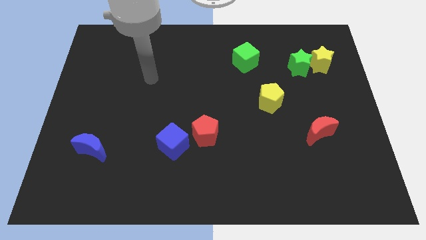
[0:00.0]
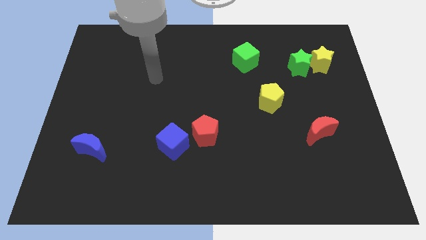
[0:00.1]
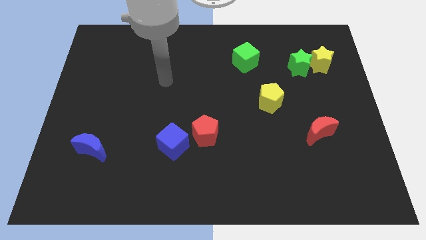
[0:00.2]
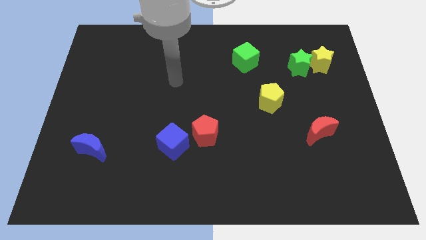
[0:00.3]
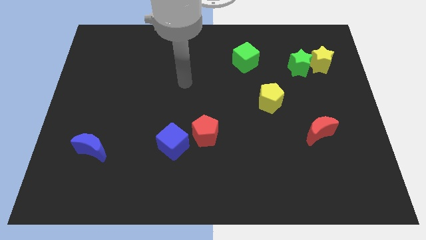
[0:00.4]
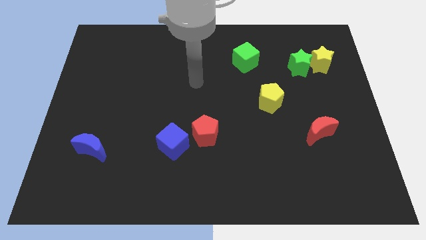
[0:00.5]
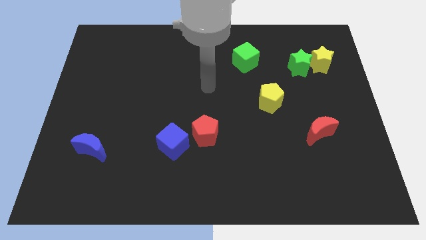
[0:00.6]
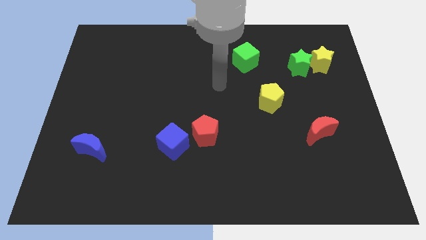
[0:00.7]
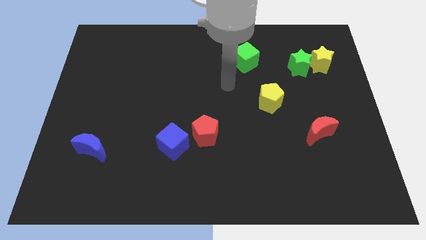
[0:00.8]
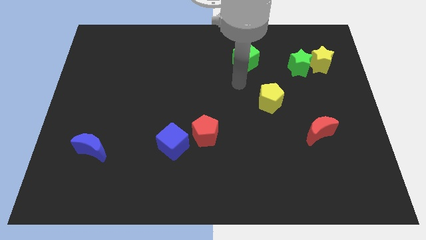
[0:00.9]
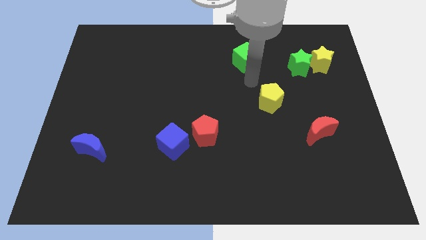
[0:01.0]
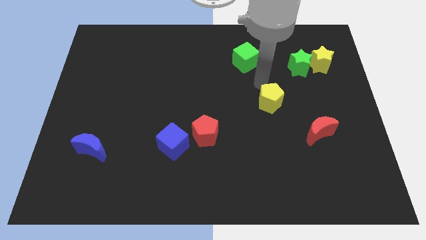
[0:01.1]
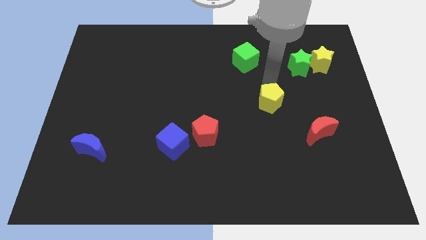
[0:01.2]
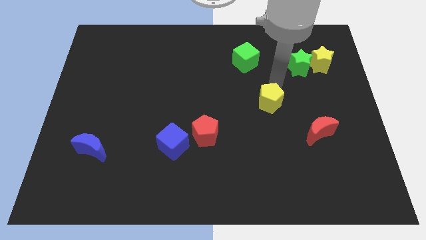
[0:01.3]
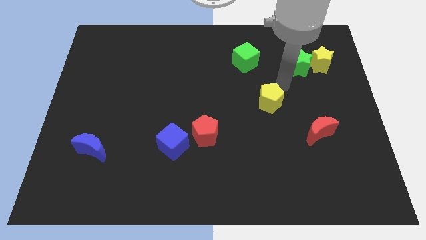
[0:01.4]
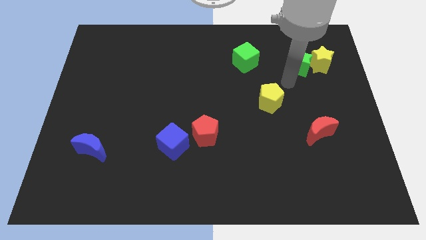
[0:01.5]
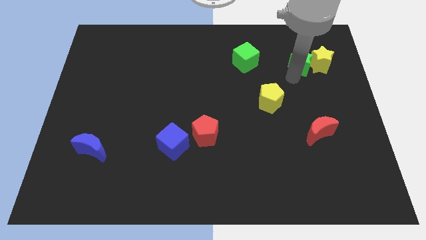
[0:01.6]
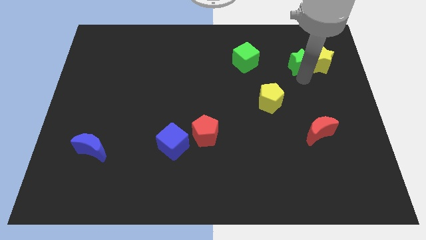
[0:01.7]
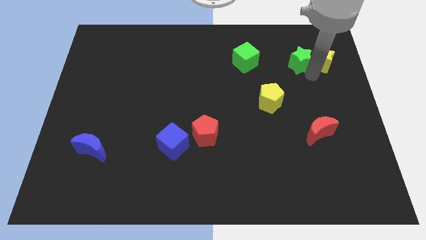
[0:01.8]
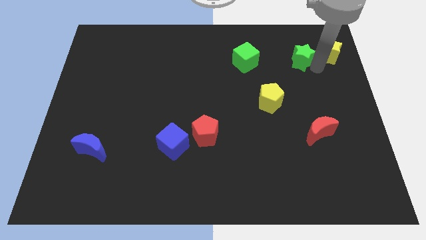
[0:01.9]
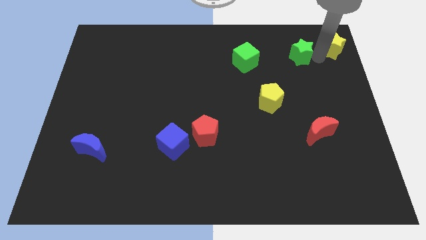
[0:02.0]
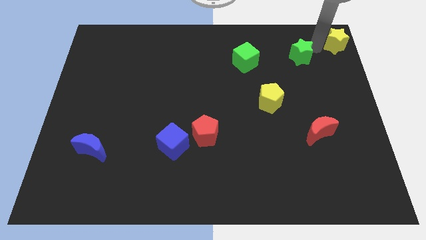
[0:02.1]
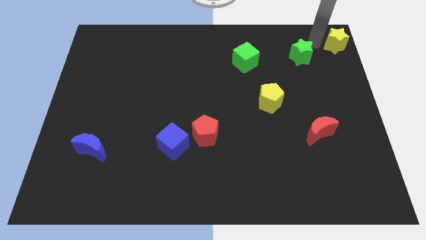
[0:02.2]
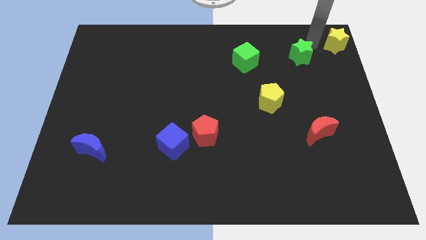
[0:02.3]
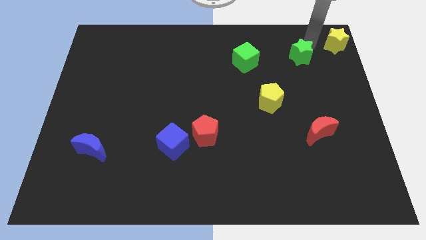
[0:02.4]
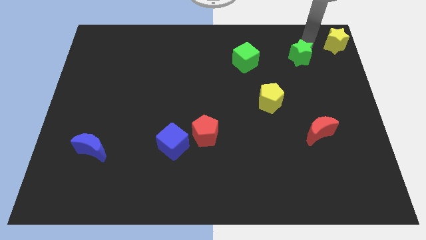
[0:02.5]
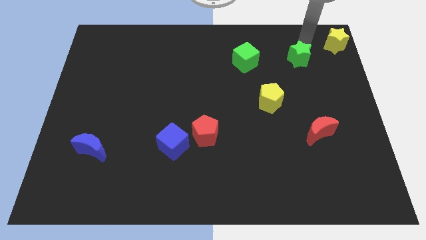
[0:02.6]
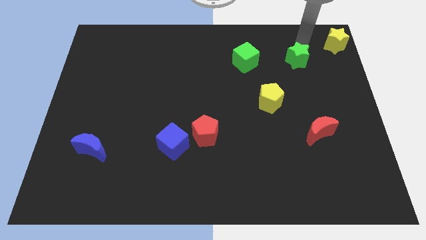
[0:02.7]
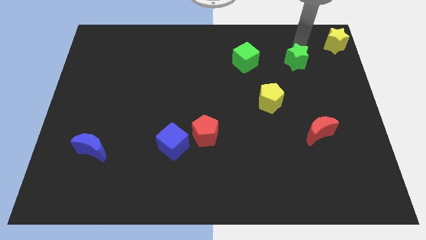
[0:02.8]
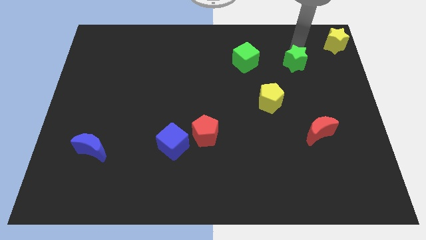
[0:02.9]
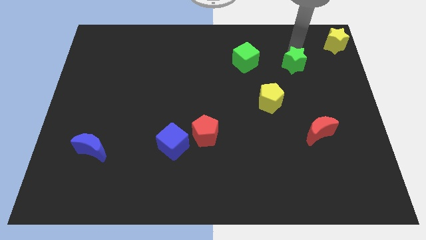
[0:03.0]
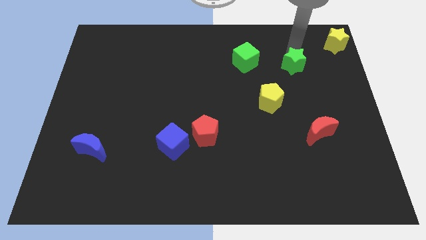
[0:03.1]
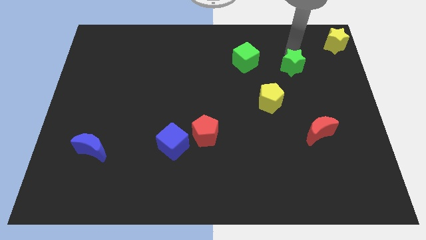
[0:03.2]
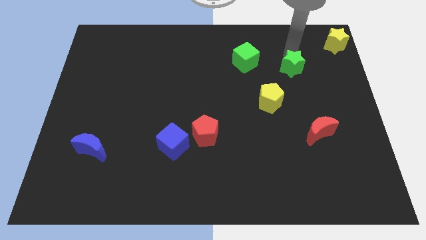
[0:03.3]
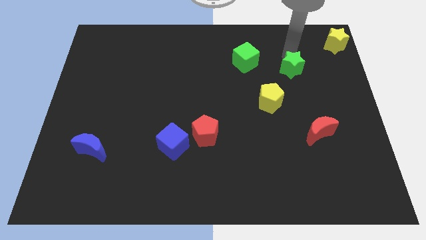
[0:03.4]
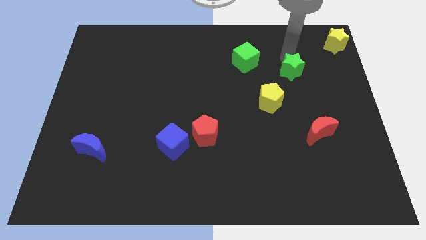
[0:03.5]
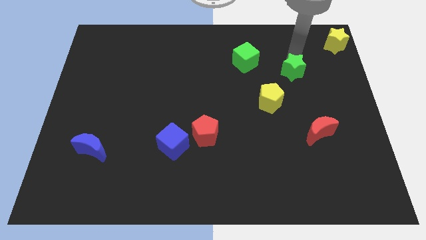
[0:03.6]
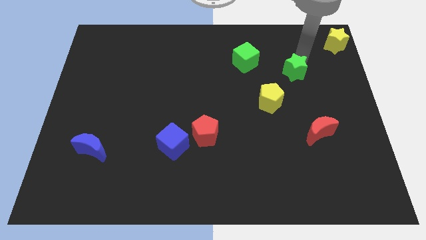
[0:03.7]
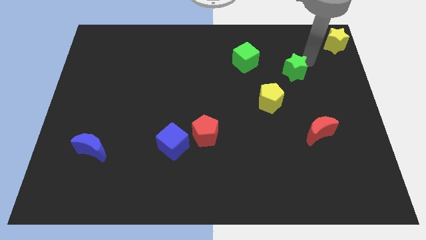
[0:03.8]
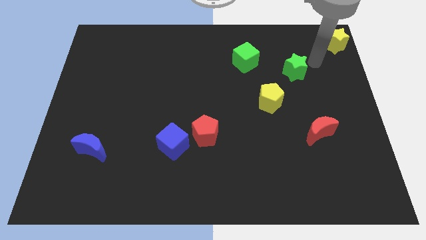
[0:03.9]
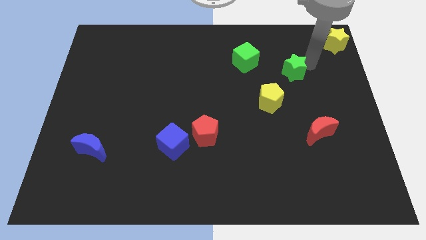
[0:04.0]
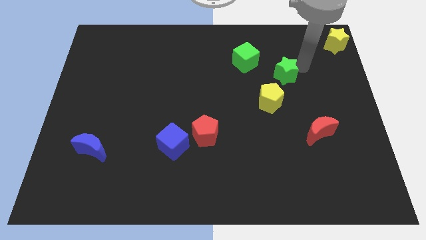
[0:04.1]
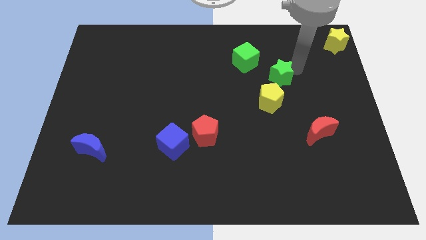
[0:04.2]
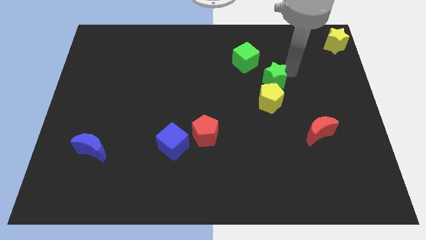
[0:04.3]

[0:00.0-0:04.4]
slightly slide the green star diagonally down and to the left

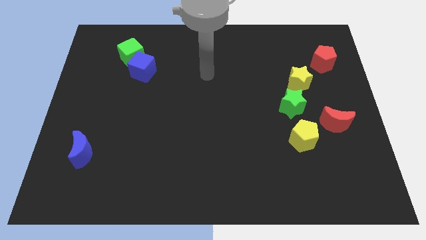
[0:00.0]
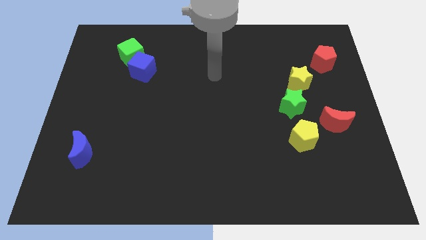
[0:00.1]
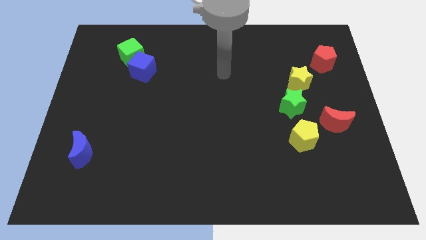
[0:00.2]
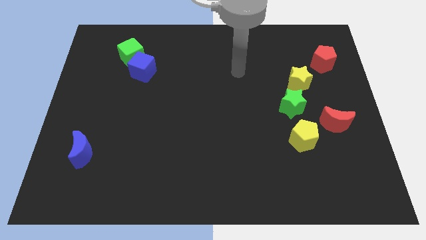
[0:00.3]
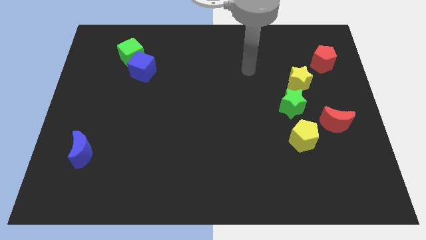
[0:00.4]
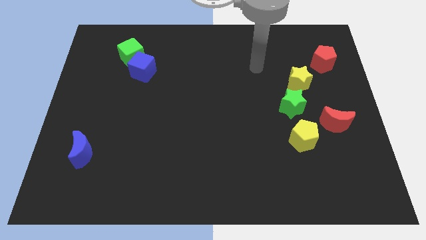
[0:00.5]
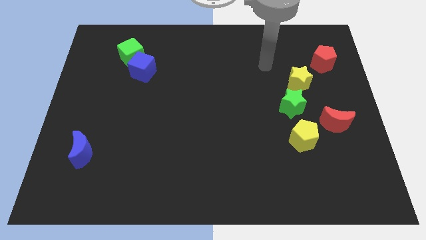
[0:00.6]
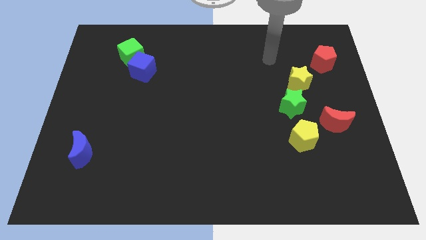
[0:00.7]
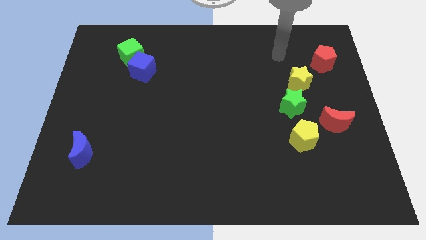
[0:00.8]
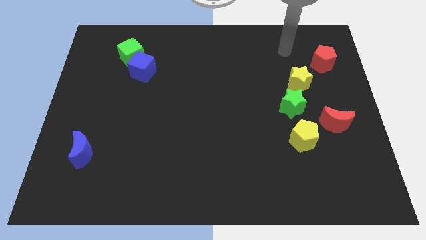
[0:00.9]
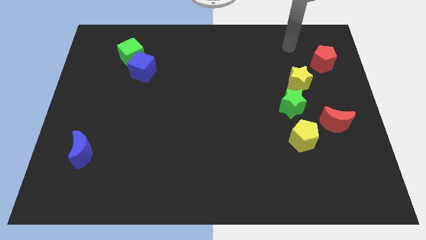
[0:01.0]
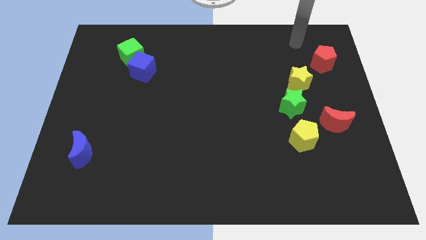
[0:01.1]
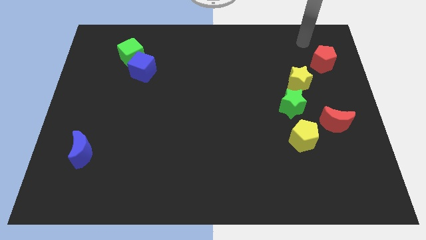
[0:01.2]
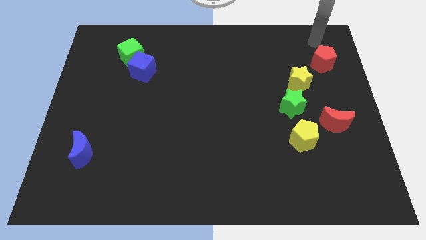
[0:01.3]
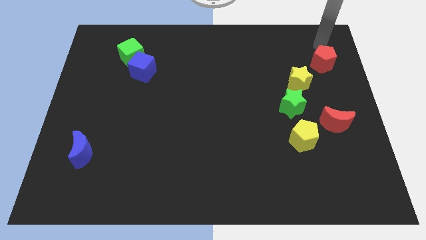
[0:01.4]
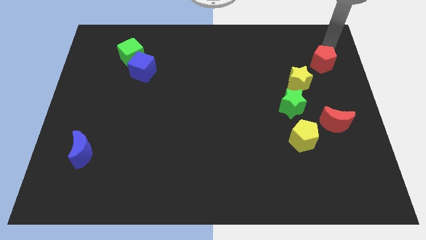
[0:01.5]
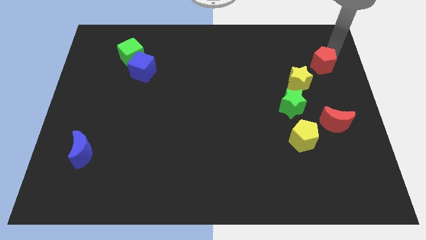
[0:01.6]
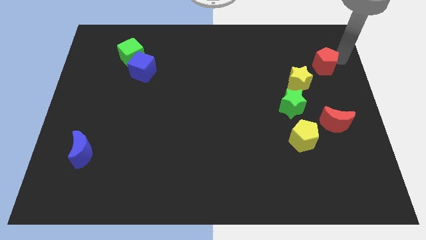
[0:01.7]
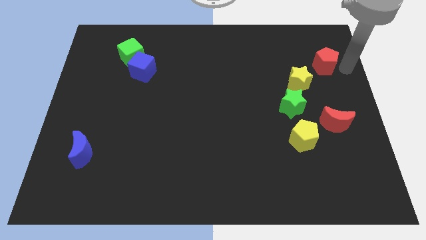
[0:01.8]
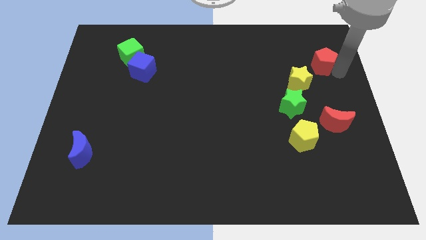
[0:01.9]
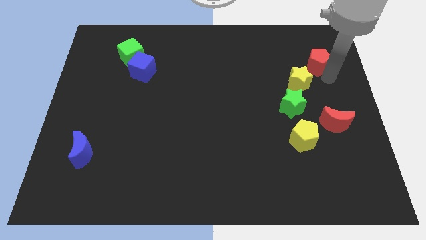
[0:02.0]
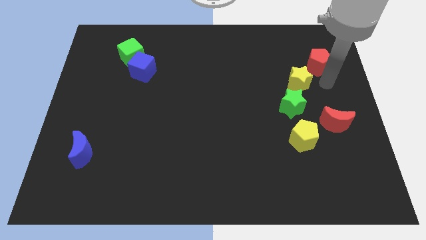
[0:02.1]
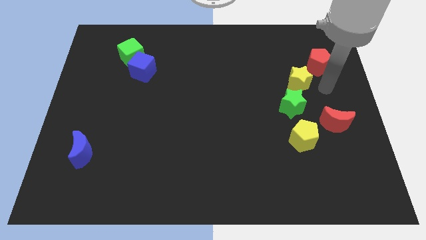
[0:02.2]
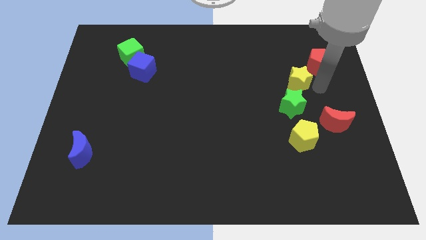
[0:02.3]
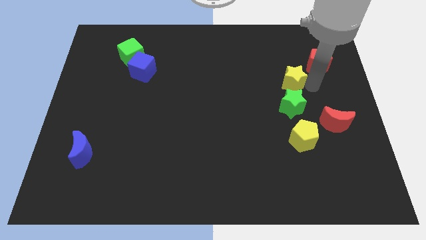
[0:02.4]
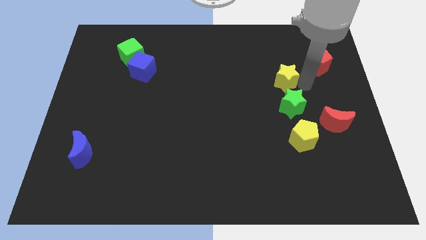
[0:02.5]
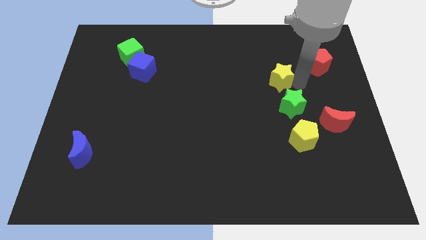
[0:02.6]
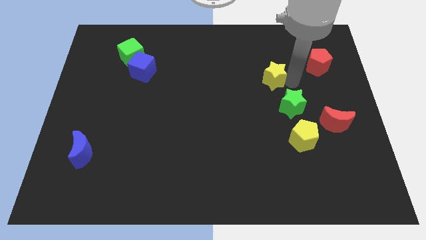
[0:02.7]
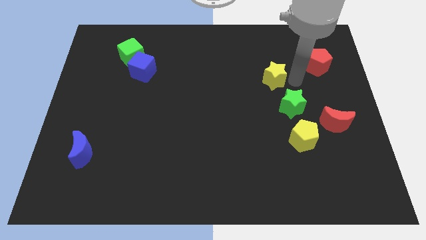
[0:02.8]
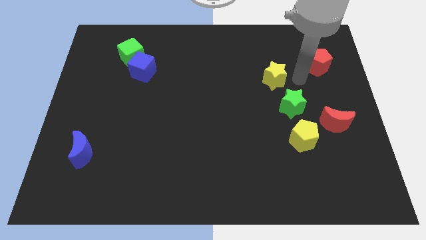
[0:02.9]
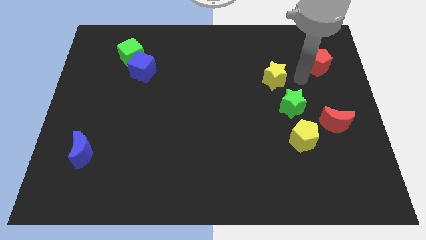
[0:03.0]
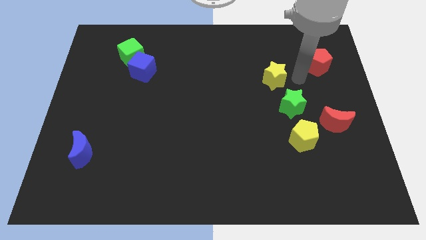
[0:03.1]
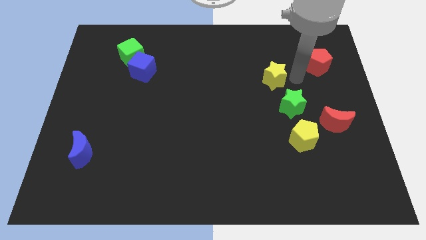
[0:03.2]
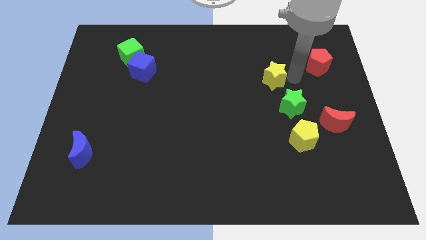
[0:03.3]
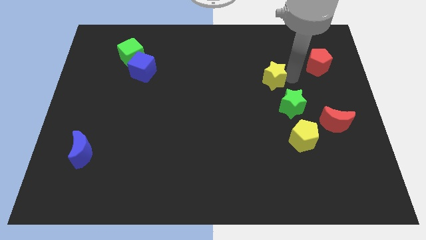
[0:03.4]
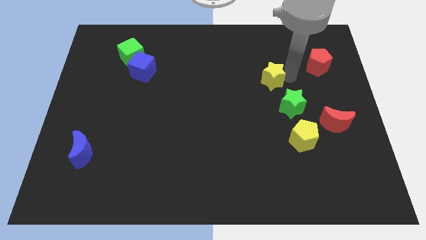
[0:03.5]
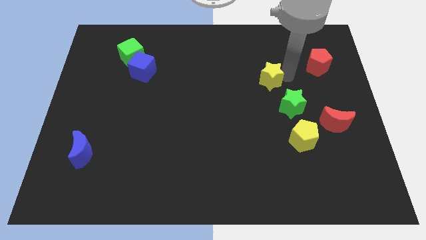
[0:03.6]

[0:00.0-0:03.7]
slightly push the yellow star to the left

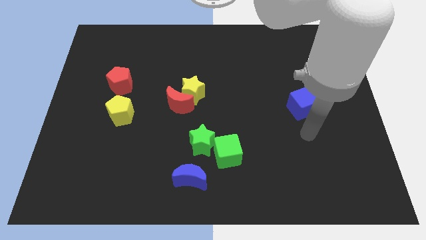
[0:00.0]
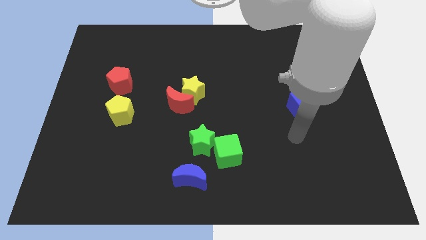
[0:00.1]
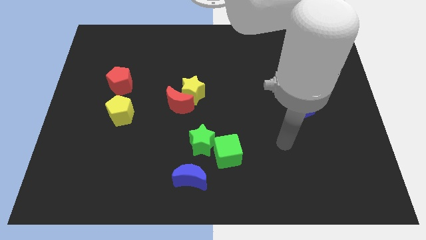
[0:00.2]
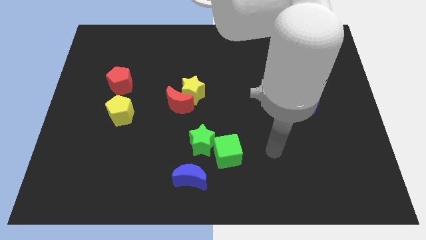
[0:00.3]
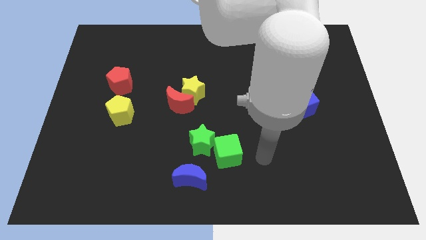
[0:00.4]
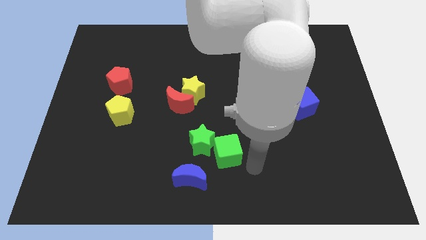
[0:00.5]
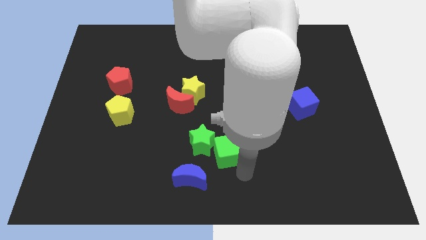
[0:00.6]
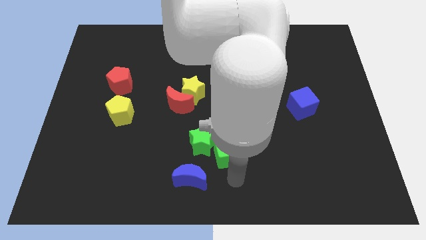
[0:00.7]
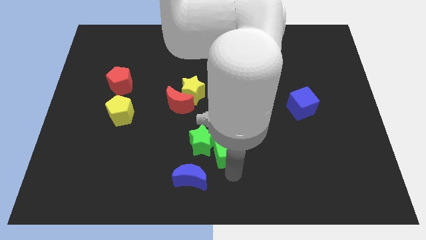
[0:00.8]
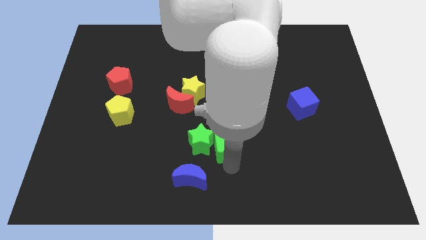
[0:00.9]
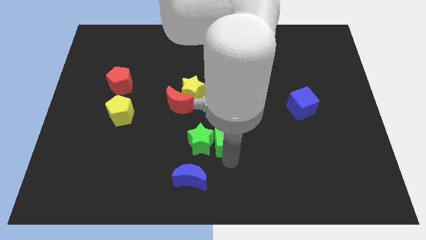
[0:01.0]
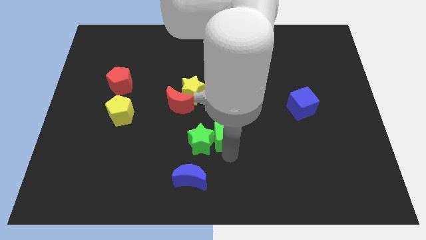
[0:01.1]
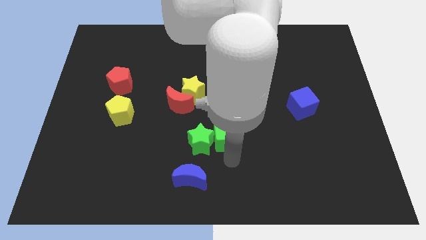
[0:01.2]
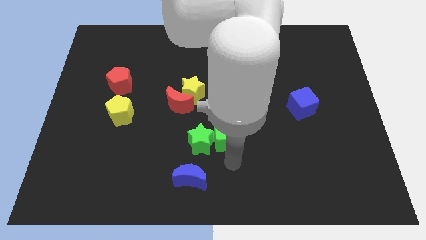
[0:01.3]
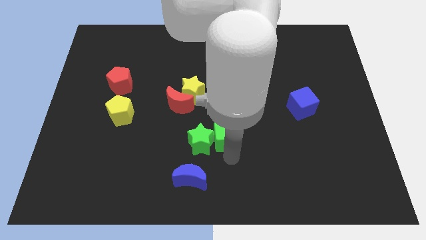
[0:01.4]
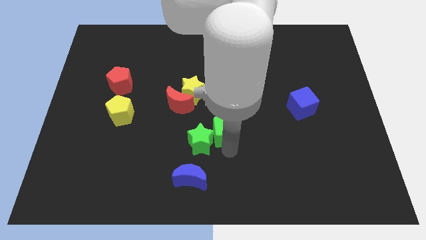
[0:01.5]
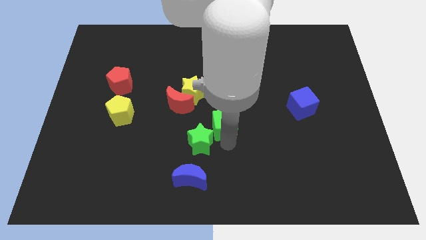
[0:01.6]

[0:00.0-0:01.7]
slide the green cube somewhat up
